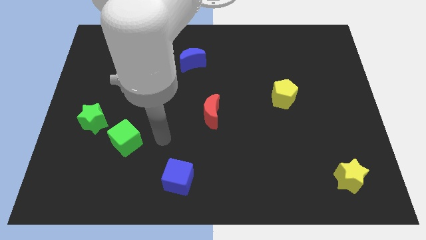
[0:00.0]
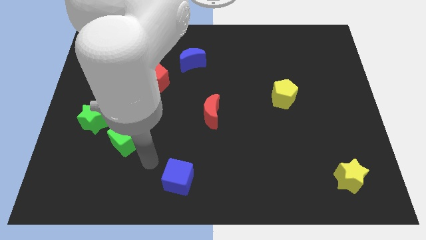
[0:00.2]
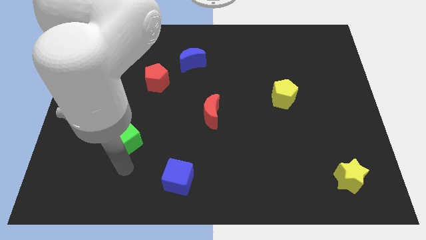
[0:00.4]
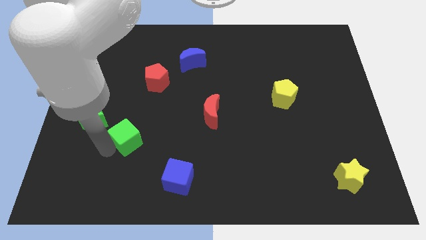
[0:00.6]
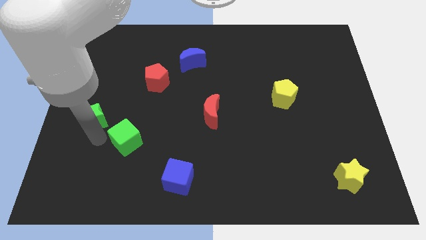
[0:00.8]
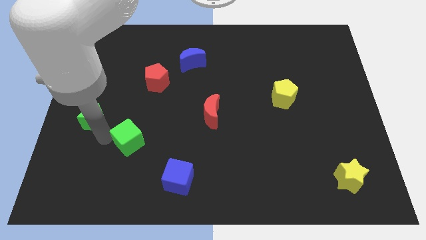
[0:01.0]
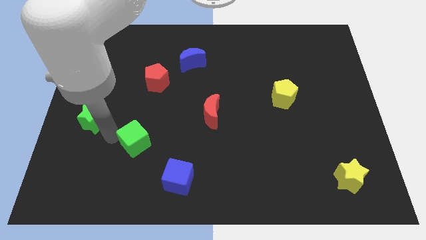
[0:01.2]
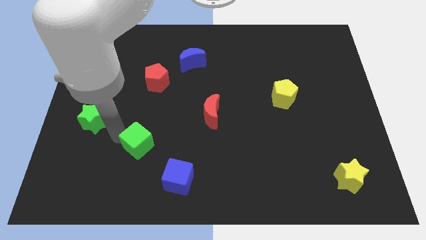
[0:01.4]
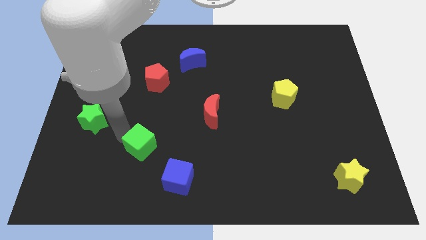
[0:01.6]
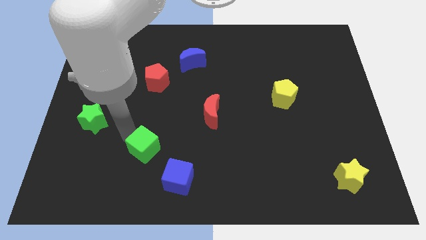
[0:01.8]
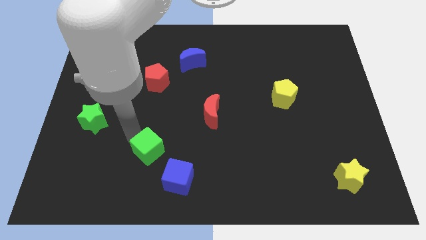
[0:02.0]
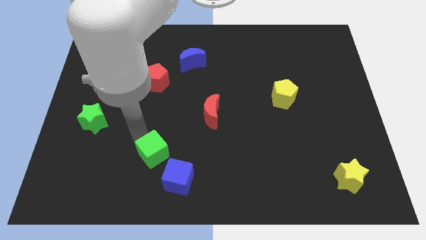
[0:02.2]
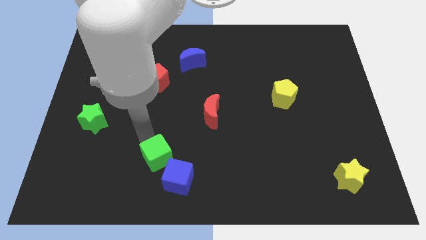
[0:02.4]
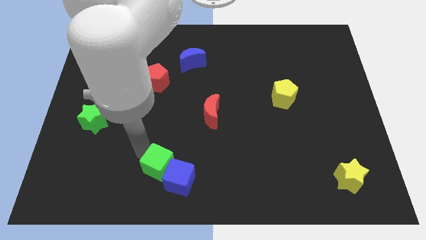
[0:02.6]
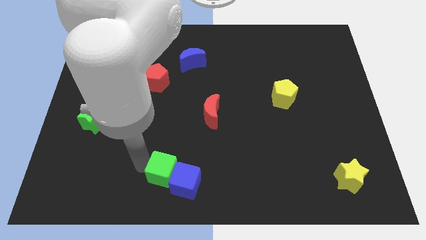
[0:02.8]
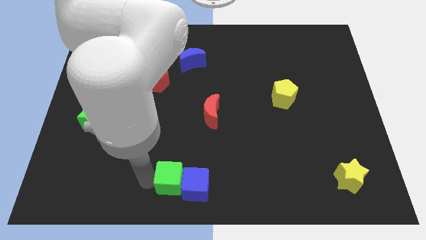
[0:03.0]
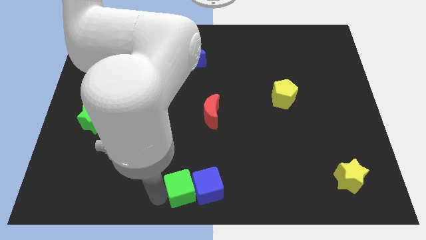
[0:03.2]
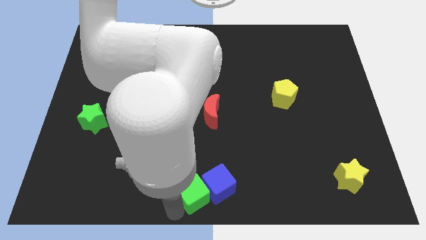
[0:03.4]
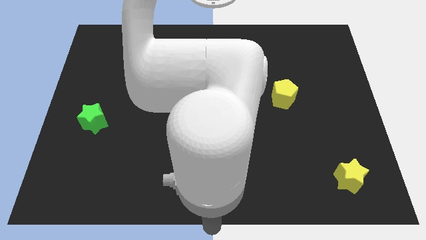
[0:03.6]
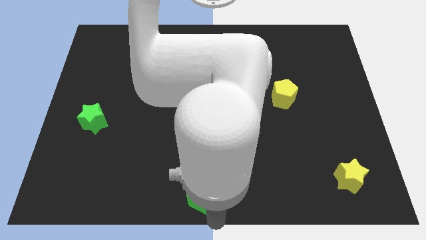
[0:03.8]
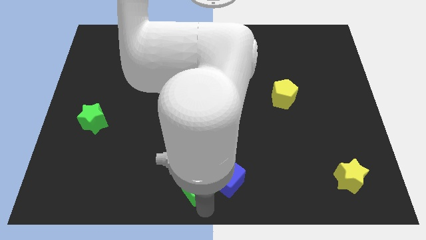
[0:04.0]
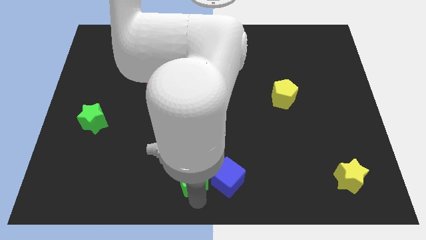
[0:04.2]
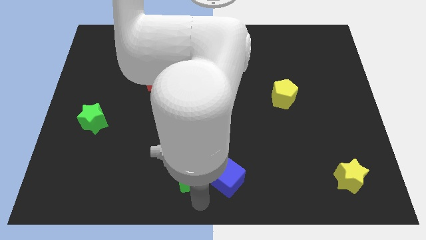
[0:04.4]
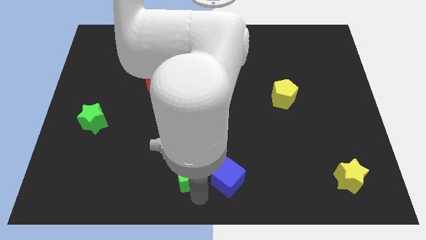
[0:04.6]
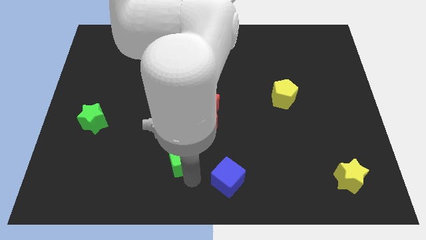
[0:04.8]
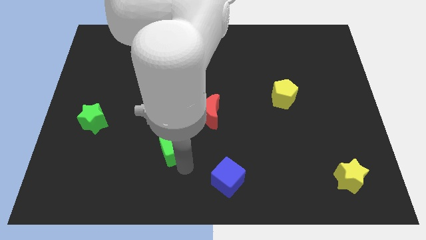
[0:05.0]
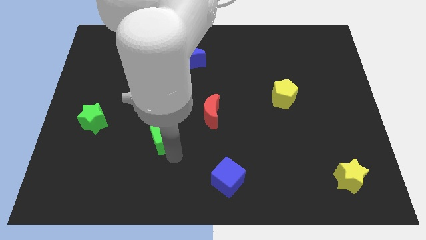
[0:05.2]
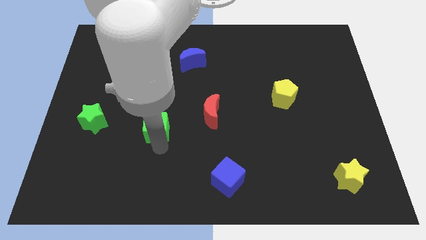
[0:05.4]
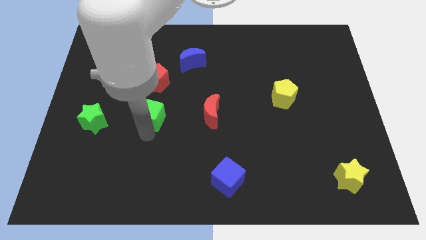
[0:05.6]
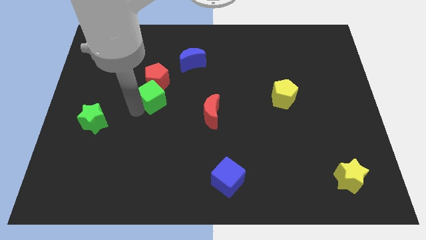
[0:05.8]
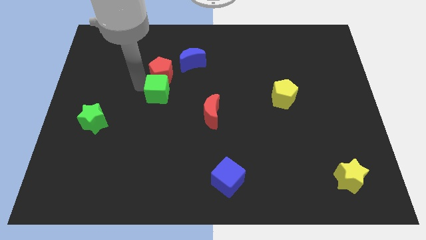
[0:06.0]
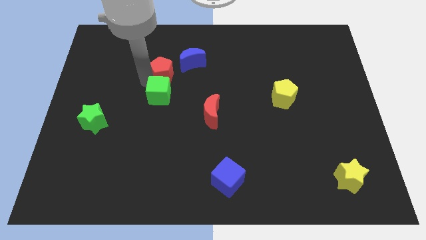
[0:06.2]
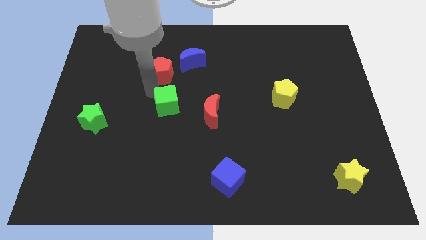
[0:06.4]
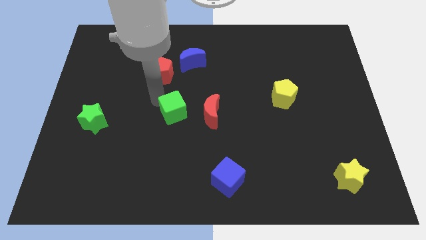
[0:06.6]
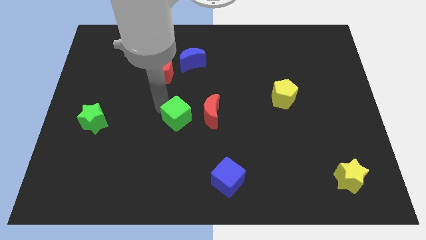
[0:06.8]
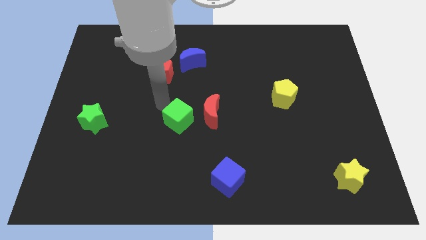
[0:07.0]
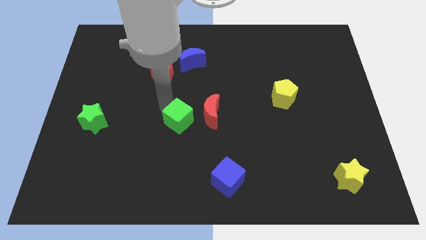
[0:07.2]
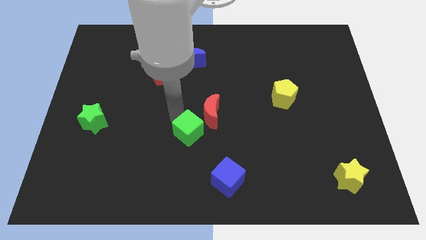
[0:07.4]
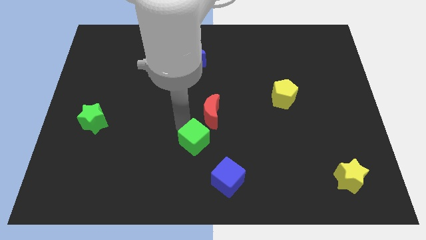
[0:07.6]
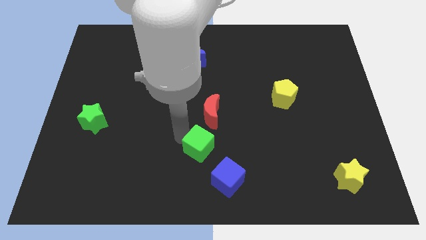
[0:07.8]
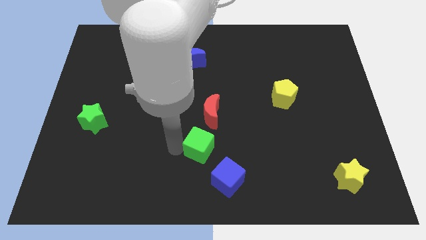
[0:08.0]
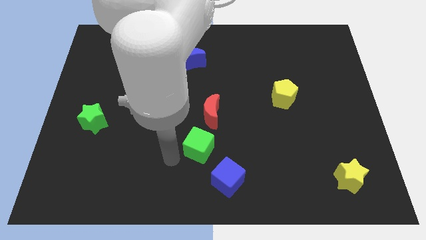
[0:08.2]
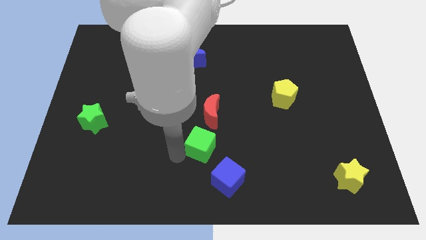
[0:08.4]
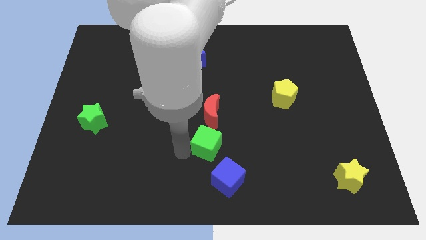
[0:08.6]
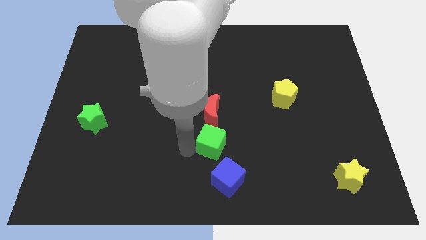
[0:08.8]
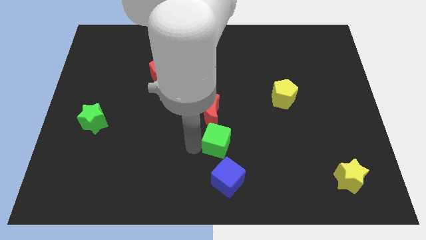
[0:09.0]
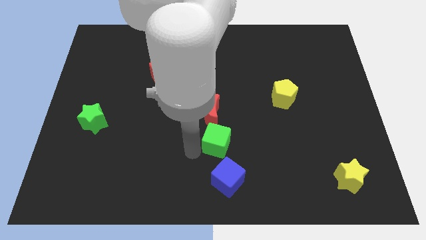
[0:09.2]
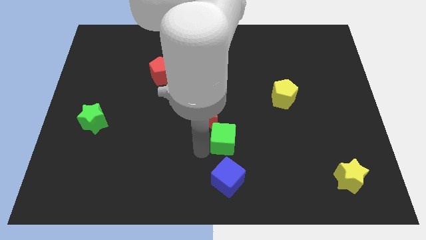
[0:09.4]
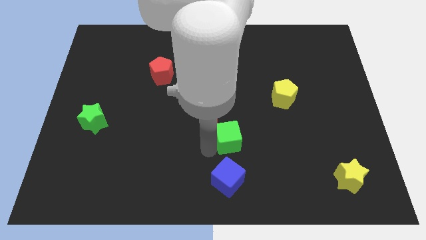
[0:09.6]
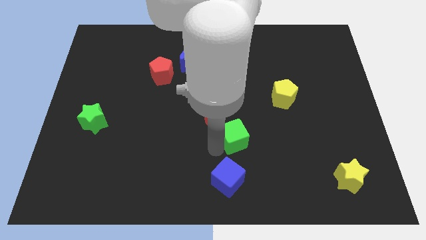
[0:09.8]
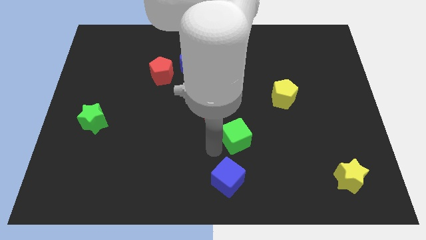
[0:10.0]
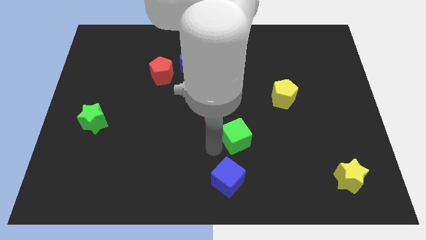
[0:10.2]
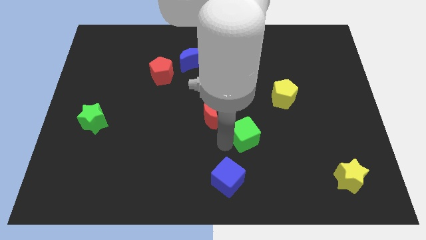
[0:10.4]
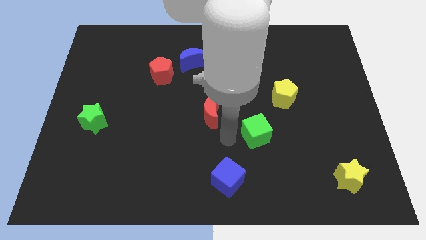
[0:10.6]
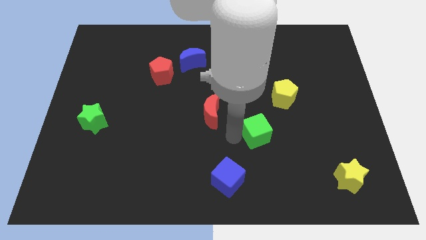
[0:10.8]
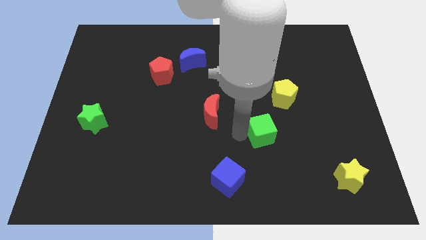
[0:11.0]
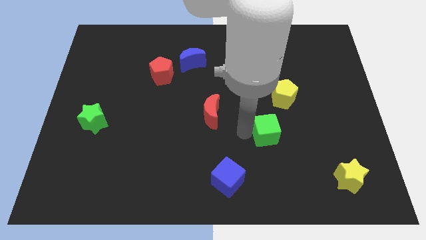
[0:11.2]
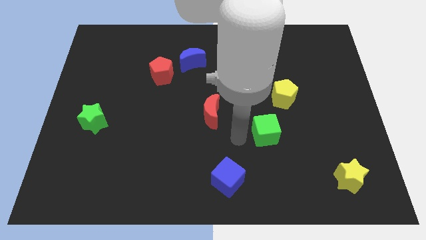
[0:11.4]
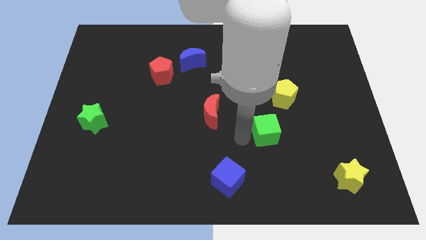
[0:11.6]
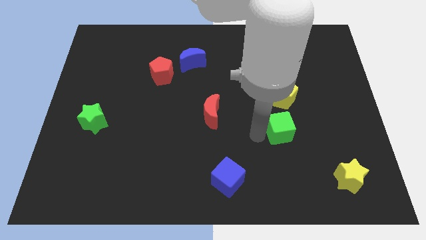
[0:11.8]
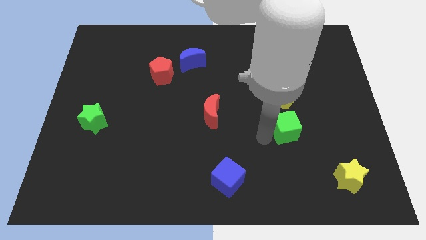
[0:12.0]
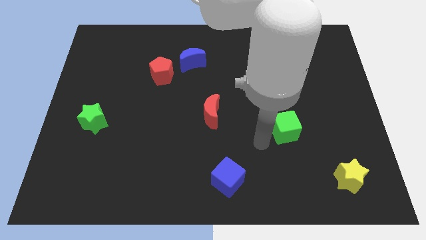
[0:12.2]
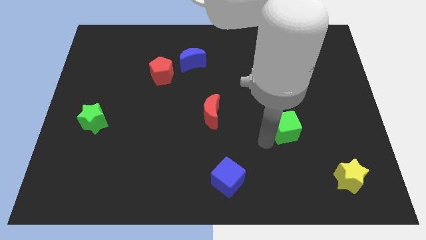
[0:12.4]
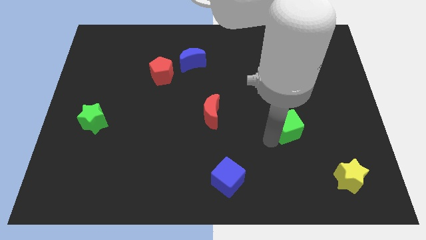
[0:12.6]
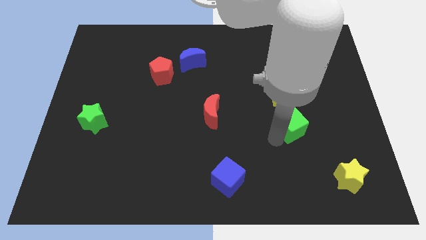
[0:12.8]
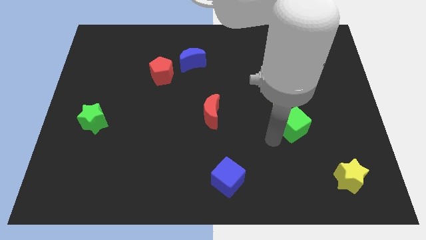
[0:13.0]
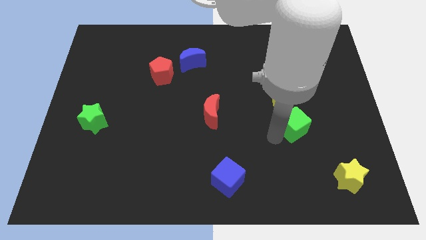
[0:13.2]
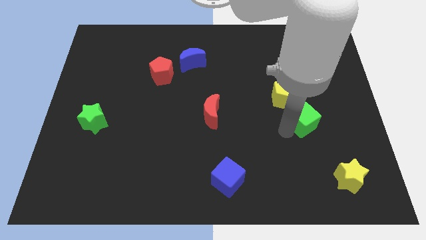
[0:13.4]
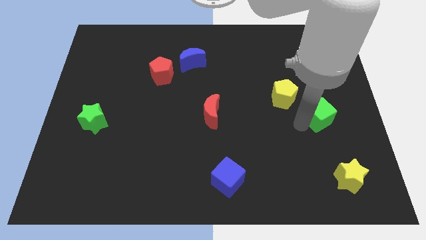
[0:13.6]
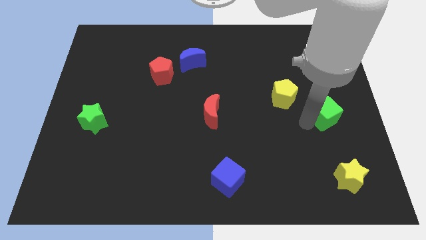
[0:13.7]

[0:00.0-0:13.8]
push the green cube to the right side of the board

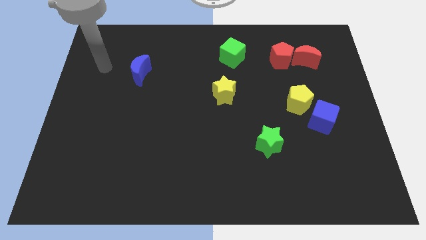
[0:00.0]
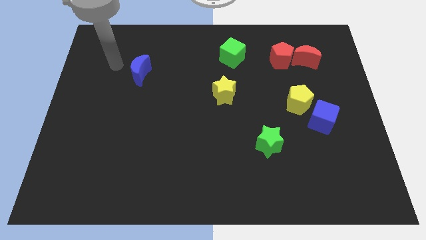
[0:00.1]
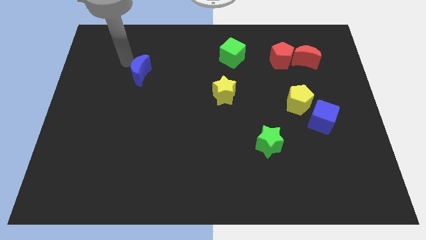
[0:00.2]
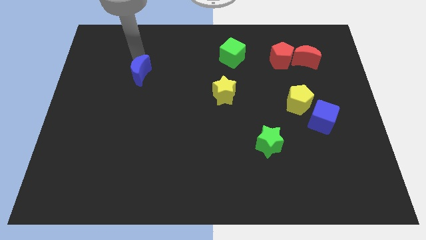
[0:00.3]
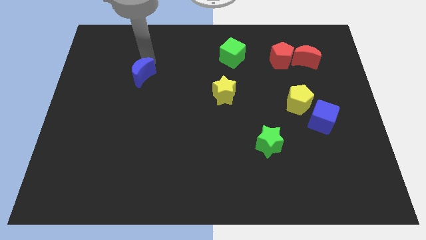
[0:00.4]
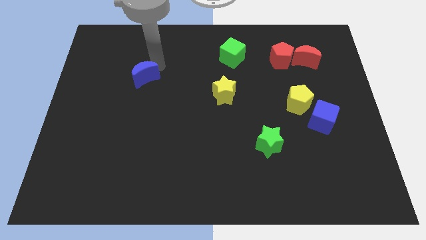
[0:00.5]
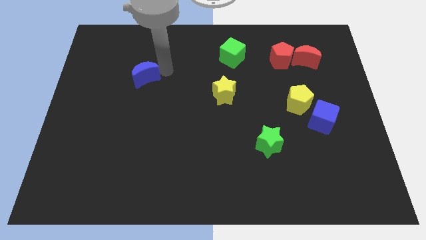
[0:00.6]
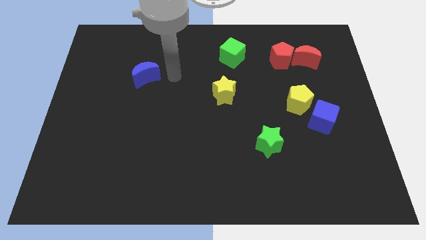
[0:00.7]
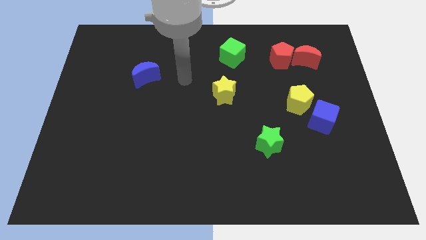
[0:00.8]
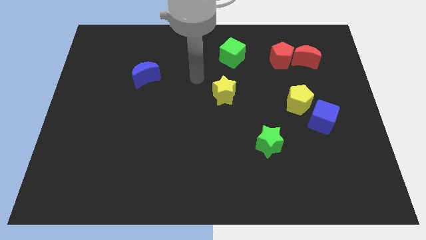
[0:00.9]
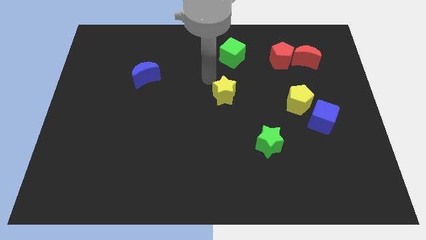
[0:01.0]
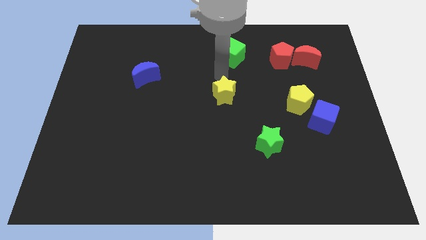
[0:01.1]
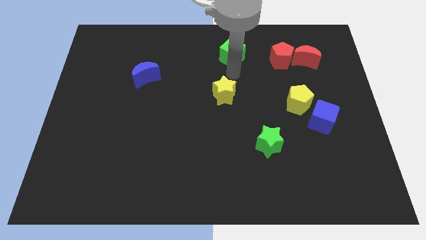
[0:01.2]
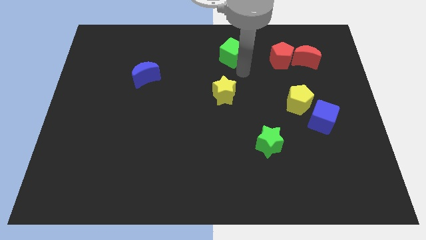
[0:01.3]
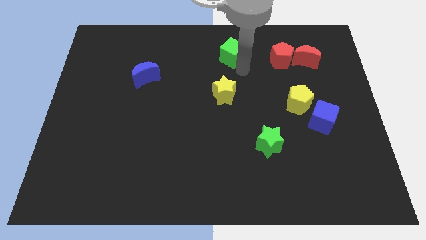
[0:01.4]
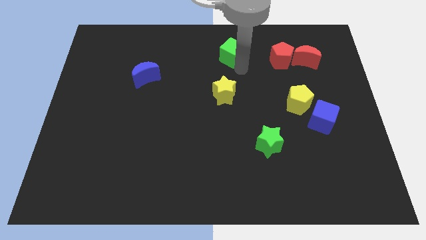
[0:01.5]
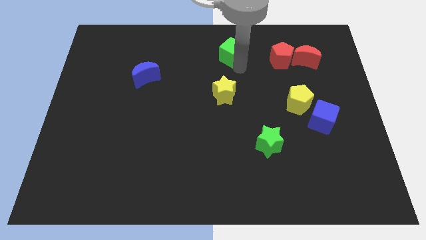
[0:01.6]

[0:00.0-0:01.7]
move the green cube to the towards your base
